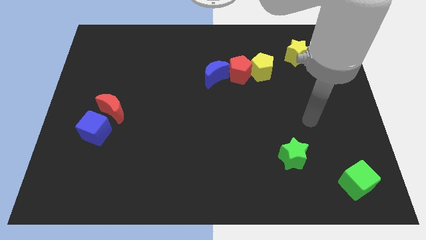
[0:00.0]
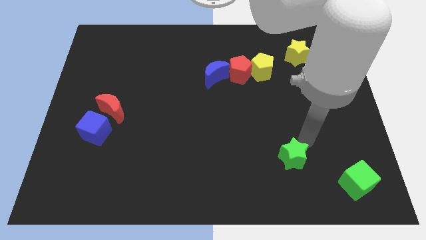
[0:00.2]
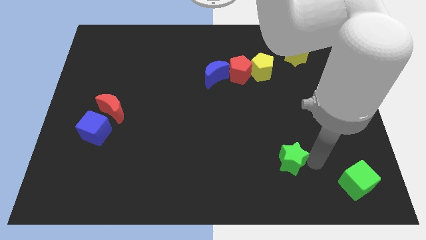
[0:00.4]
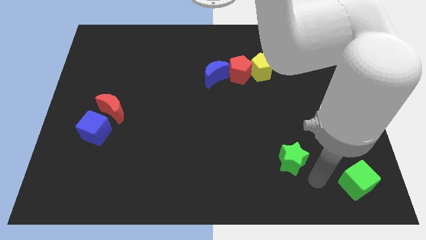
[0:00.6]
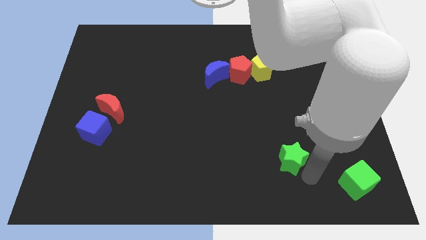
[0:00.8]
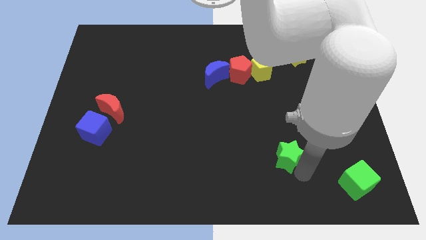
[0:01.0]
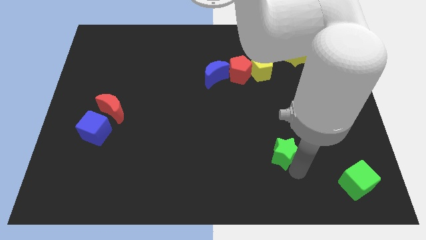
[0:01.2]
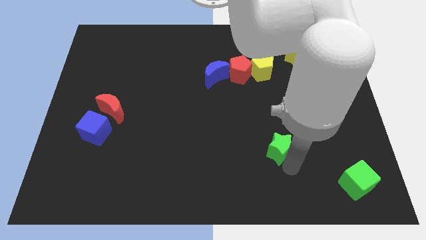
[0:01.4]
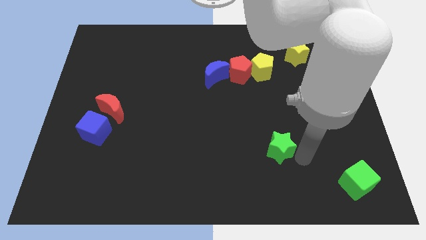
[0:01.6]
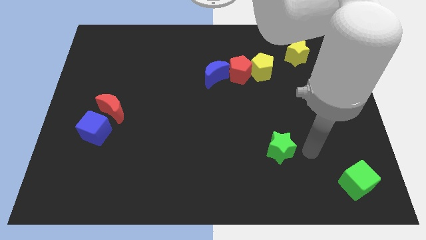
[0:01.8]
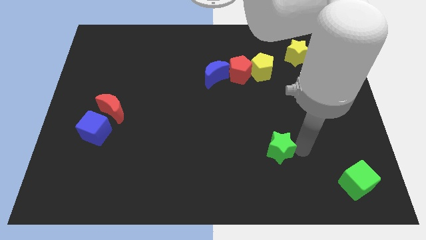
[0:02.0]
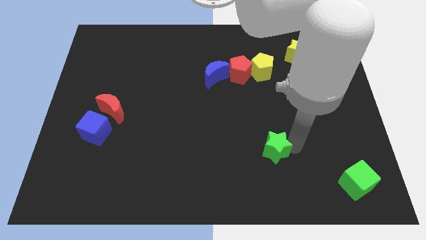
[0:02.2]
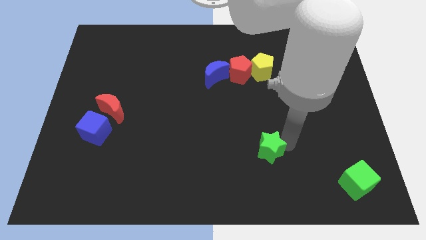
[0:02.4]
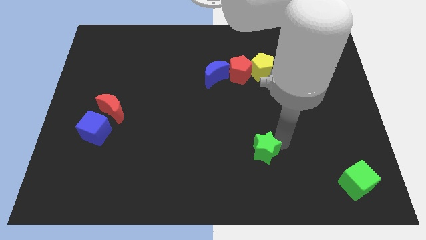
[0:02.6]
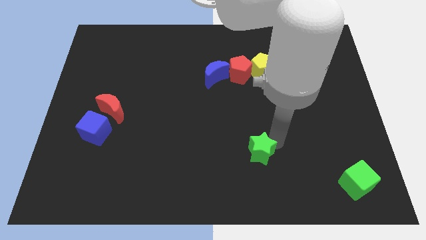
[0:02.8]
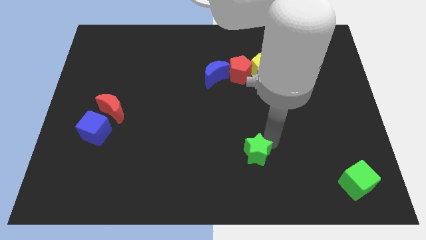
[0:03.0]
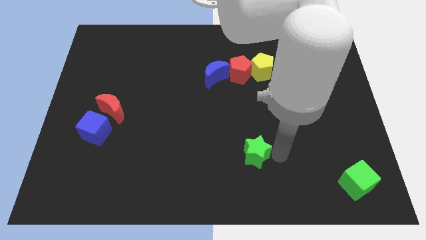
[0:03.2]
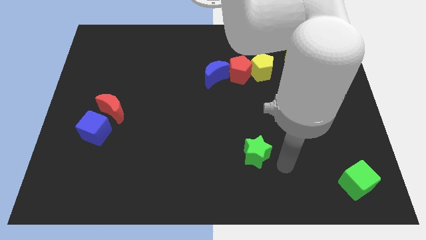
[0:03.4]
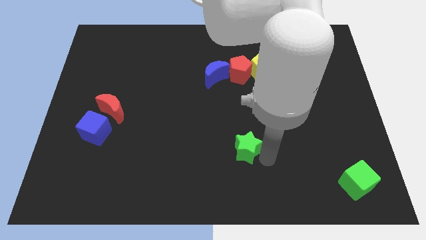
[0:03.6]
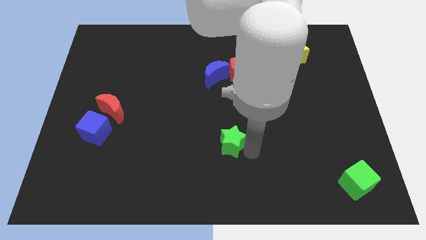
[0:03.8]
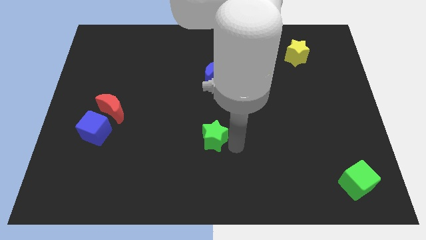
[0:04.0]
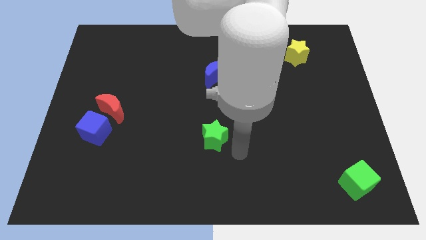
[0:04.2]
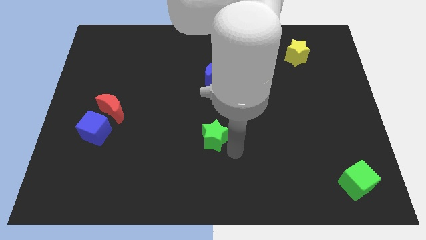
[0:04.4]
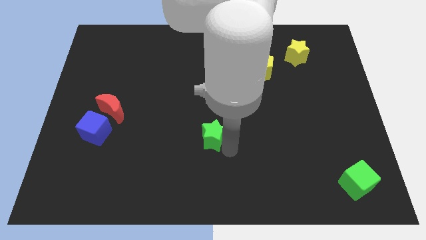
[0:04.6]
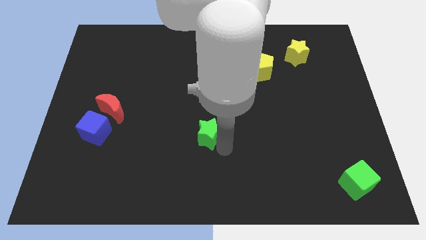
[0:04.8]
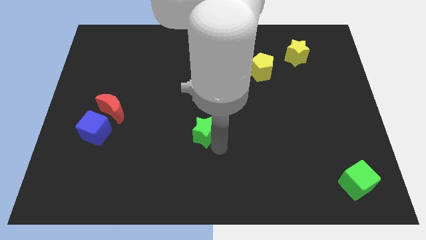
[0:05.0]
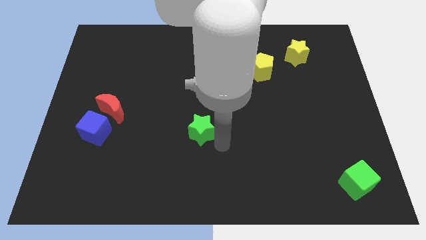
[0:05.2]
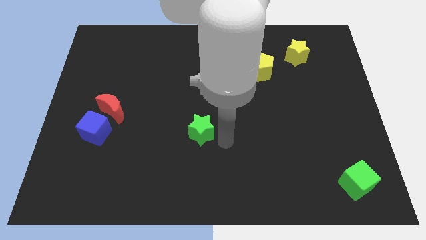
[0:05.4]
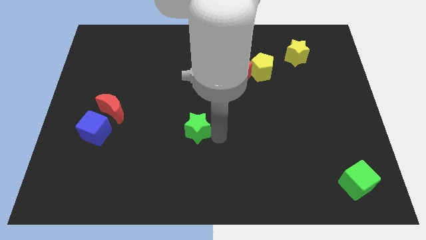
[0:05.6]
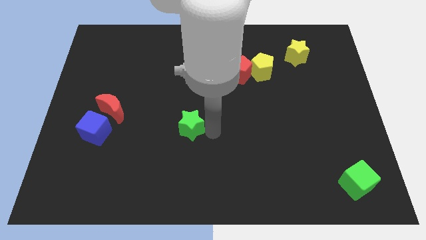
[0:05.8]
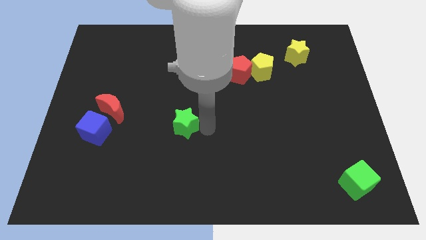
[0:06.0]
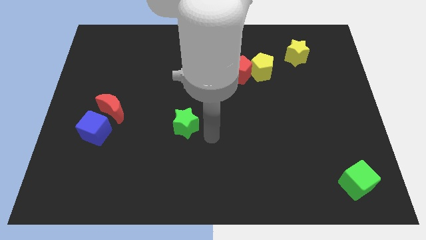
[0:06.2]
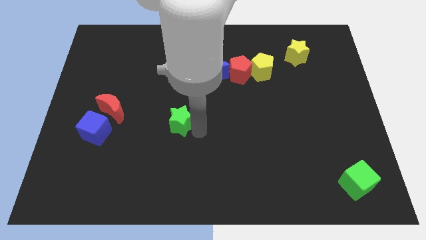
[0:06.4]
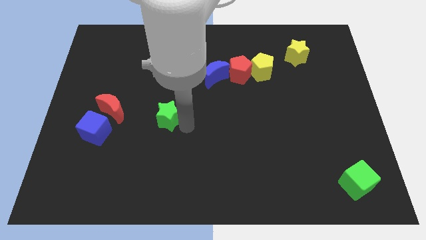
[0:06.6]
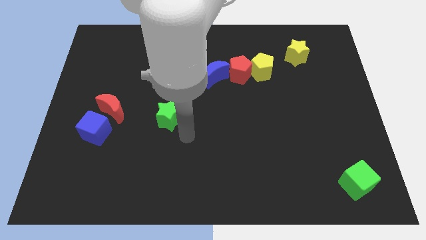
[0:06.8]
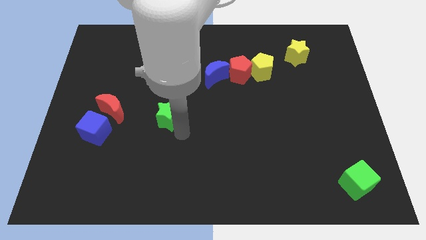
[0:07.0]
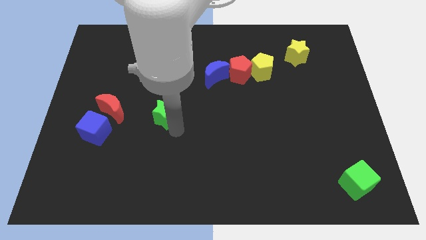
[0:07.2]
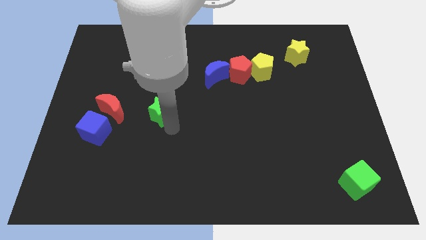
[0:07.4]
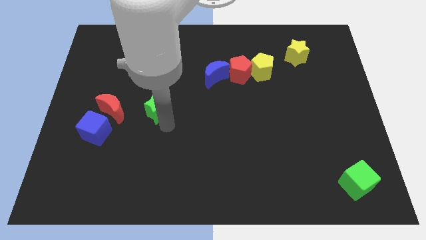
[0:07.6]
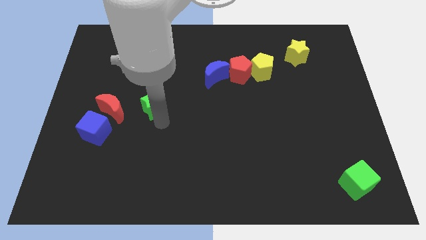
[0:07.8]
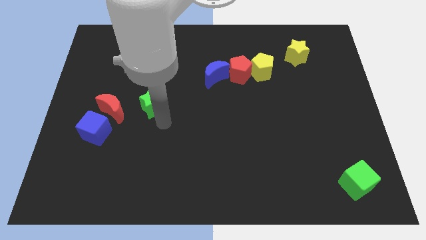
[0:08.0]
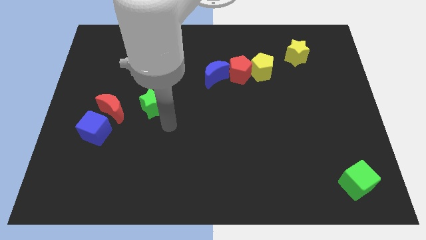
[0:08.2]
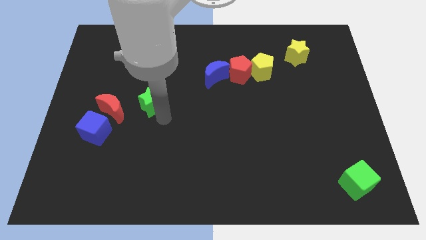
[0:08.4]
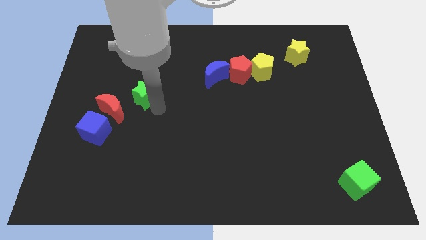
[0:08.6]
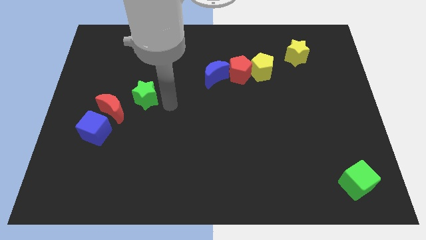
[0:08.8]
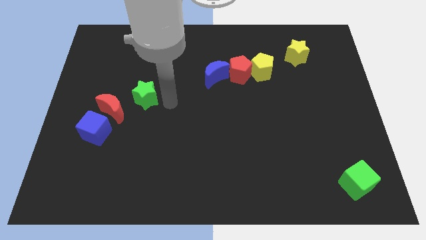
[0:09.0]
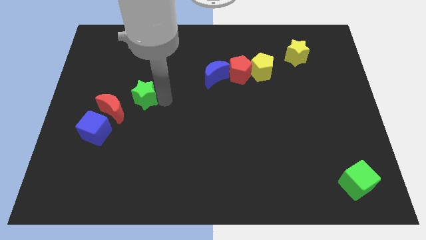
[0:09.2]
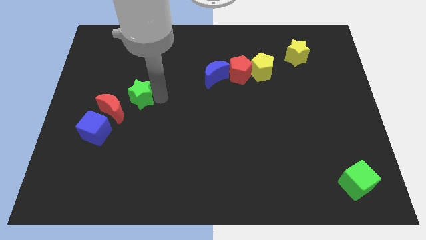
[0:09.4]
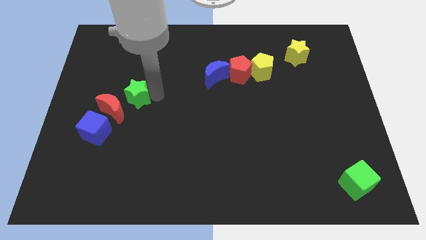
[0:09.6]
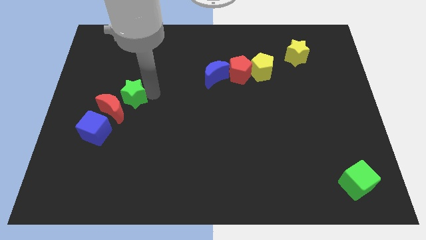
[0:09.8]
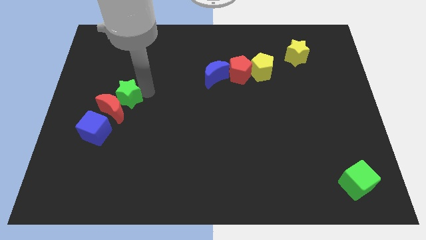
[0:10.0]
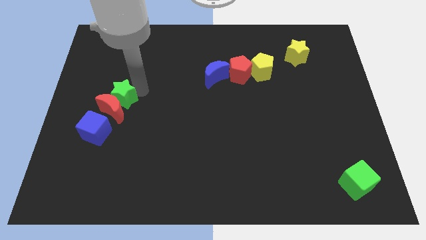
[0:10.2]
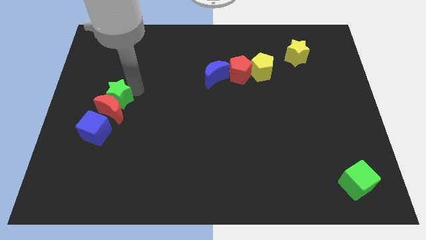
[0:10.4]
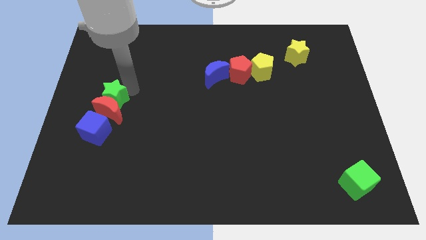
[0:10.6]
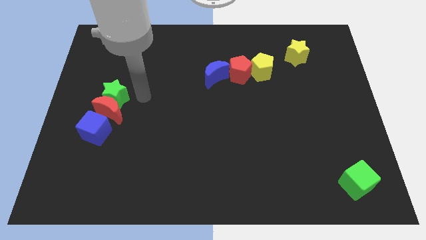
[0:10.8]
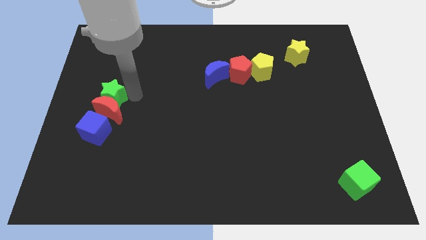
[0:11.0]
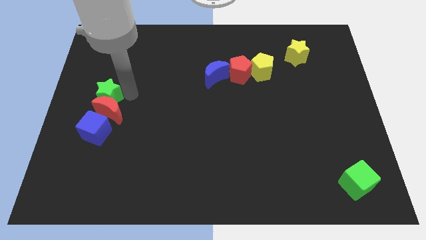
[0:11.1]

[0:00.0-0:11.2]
slide the green star to the left side

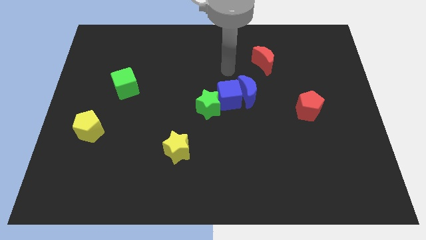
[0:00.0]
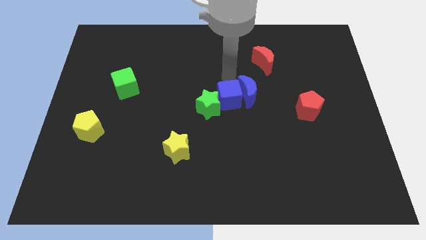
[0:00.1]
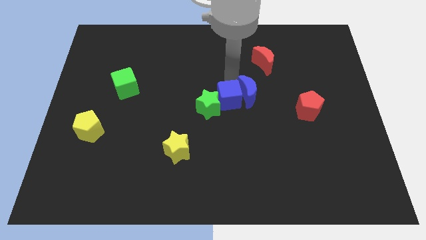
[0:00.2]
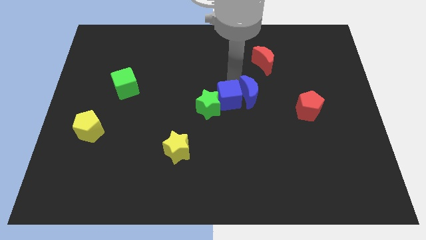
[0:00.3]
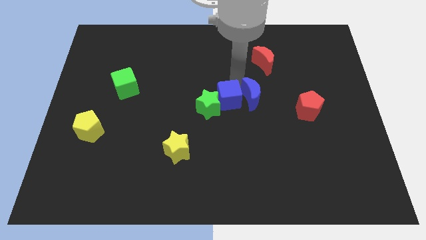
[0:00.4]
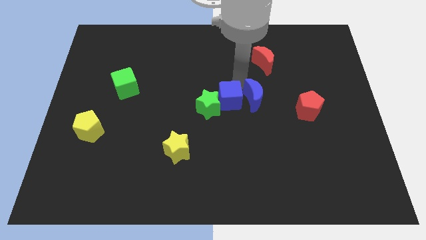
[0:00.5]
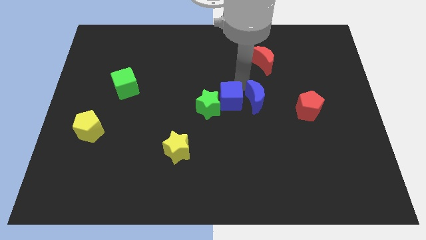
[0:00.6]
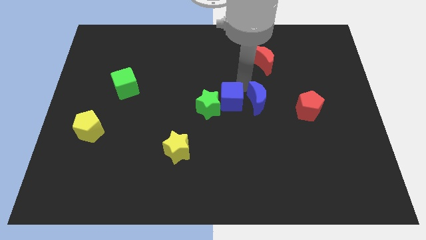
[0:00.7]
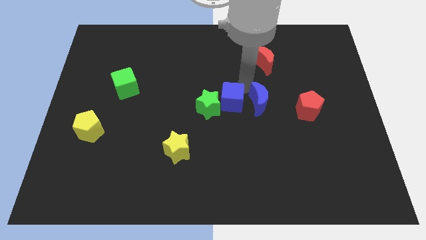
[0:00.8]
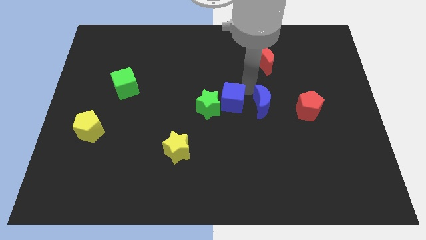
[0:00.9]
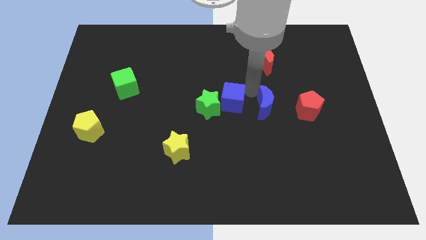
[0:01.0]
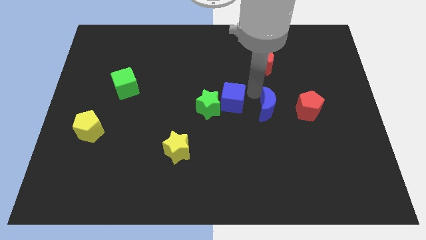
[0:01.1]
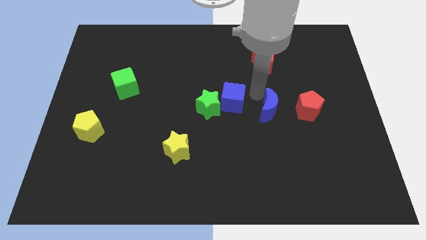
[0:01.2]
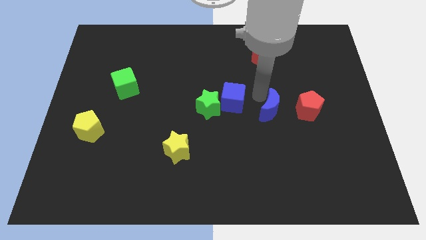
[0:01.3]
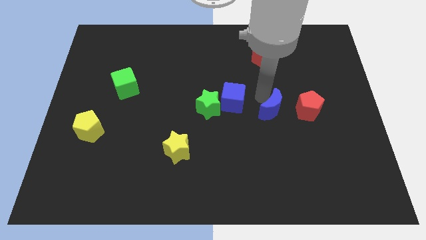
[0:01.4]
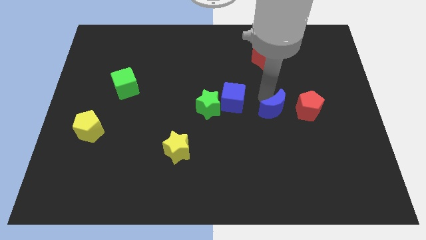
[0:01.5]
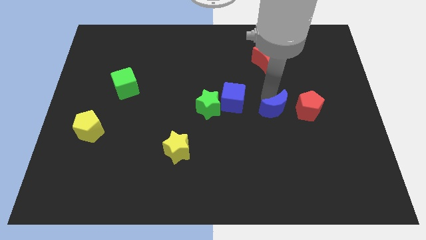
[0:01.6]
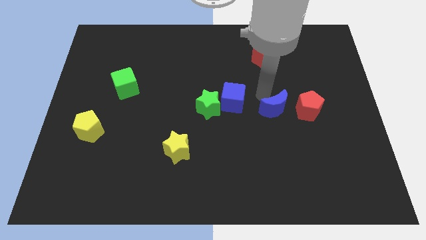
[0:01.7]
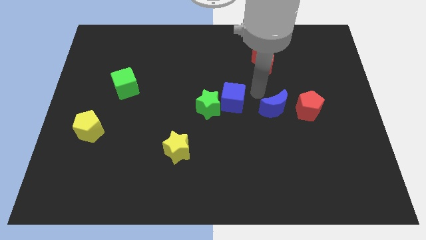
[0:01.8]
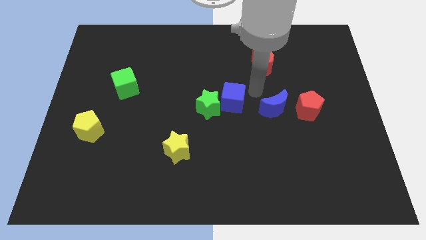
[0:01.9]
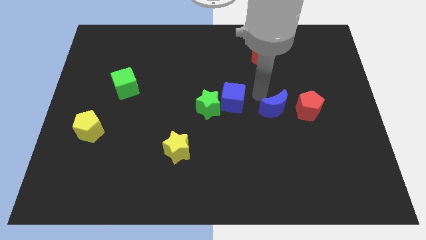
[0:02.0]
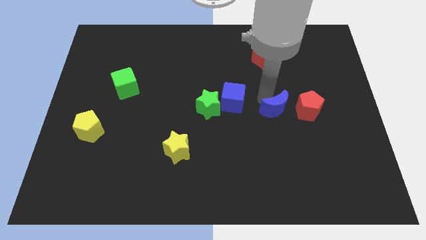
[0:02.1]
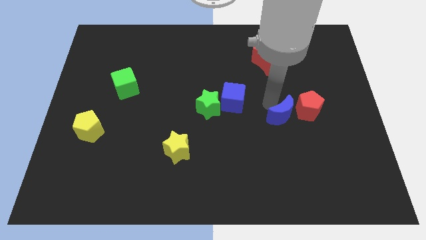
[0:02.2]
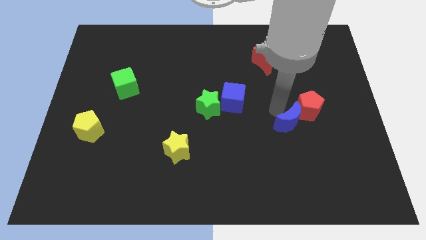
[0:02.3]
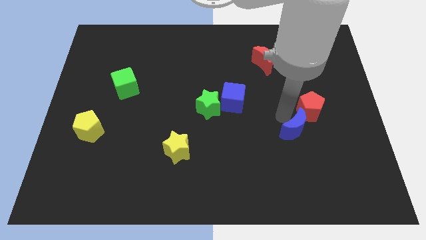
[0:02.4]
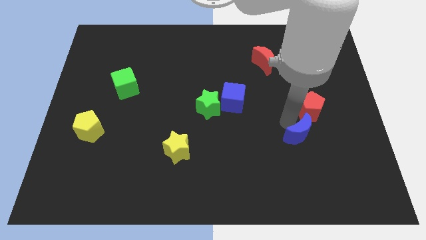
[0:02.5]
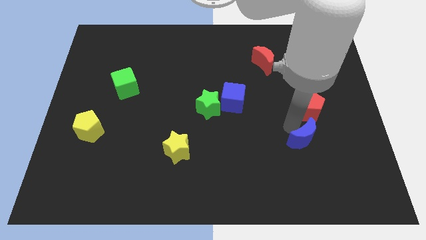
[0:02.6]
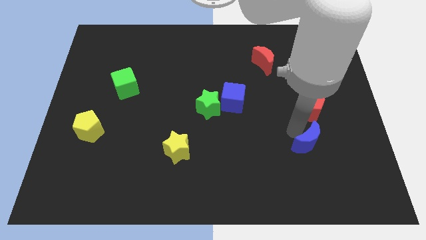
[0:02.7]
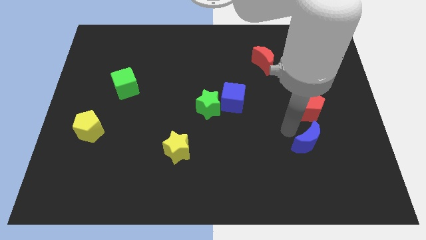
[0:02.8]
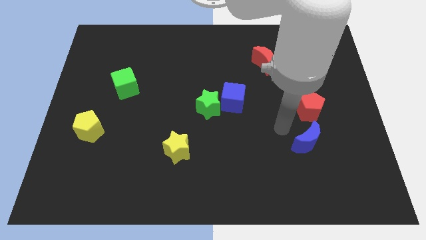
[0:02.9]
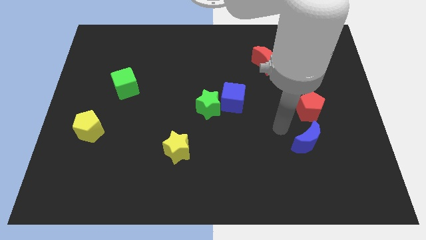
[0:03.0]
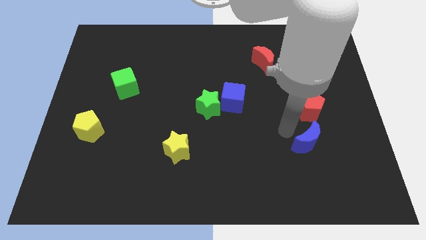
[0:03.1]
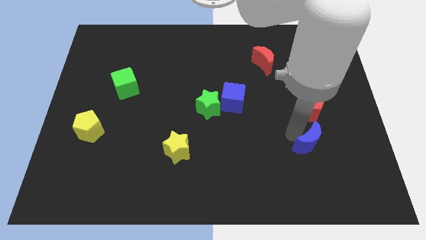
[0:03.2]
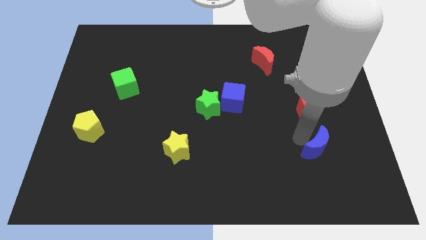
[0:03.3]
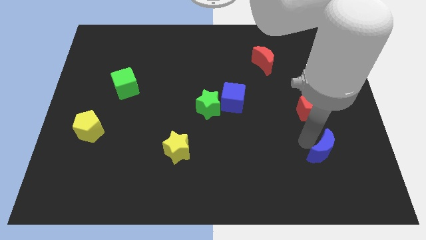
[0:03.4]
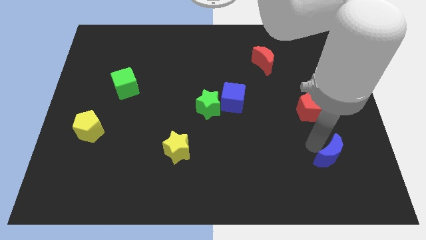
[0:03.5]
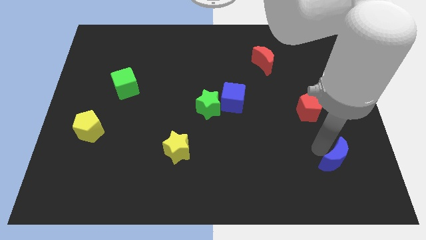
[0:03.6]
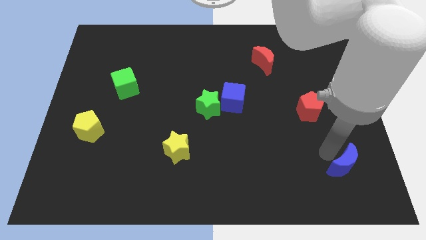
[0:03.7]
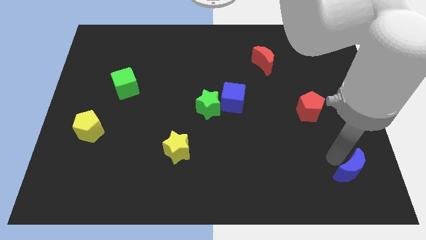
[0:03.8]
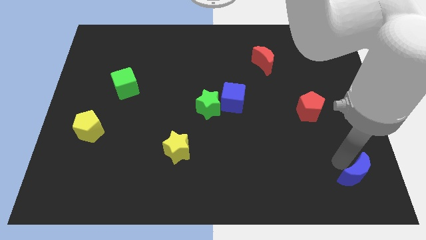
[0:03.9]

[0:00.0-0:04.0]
push the blue moon to the lower right corner
